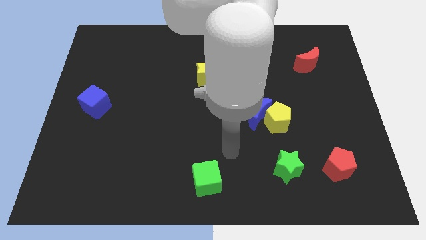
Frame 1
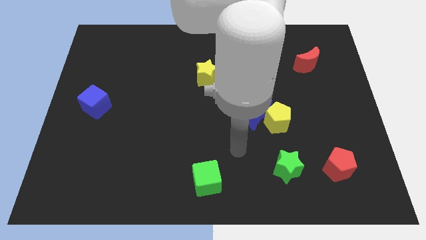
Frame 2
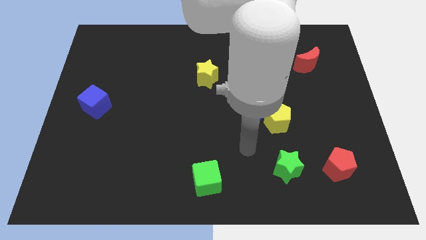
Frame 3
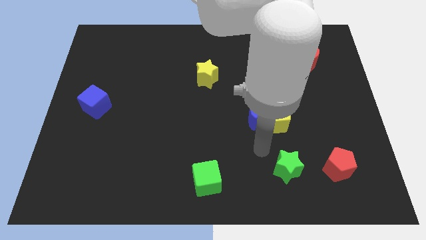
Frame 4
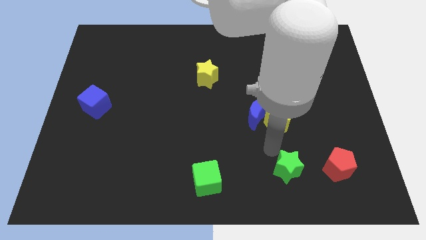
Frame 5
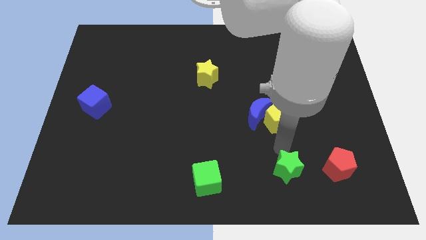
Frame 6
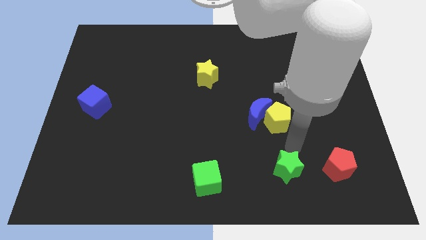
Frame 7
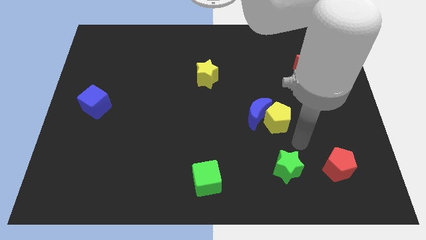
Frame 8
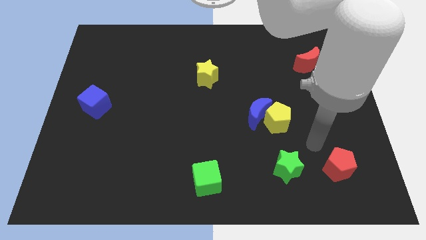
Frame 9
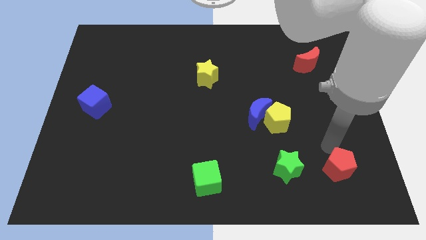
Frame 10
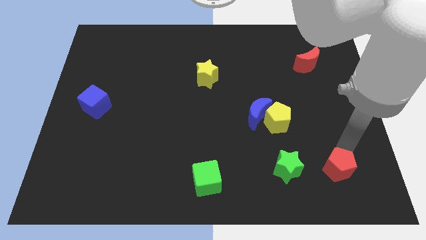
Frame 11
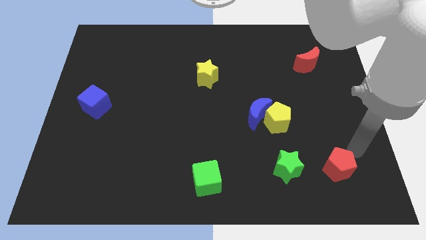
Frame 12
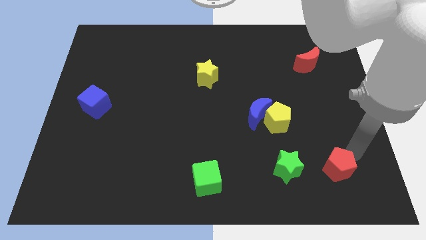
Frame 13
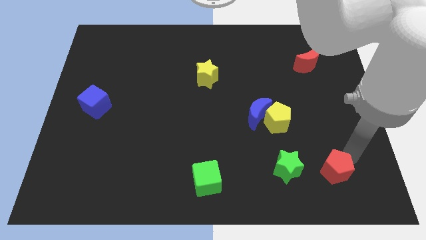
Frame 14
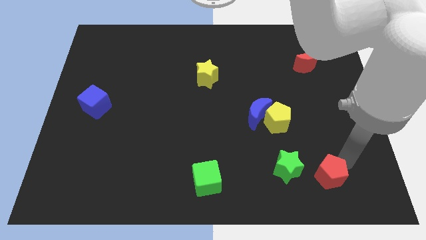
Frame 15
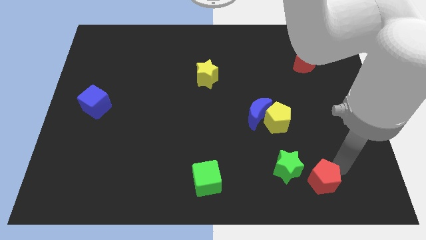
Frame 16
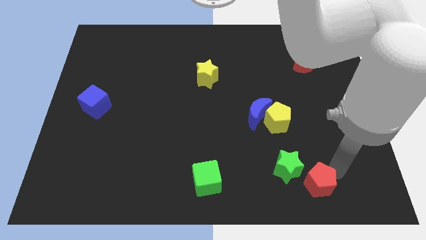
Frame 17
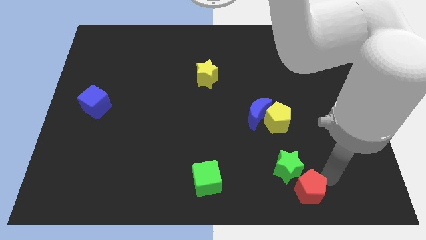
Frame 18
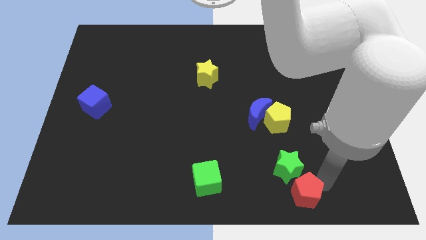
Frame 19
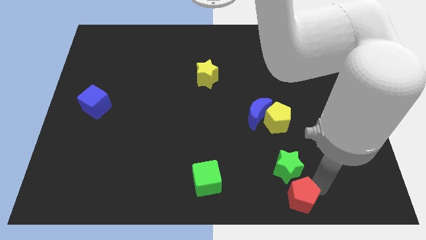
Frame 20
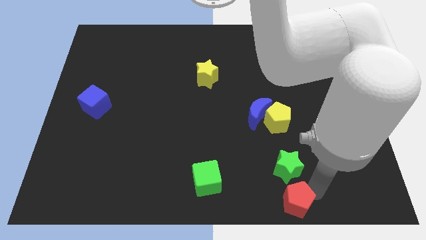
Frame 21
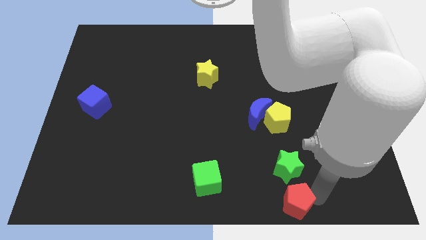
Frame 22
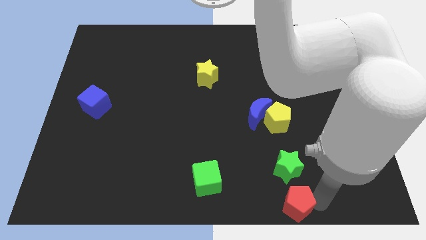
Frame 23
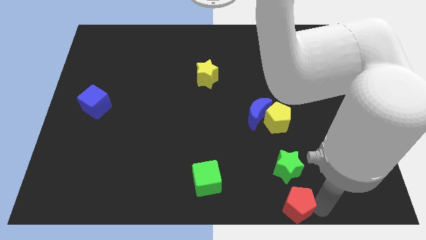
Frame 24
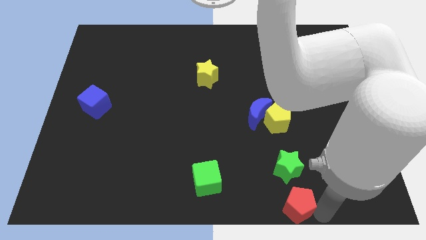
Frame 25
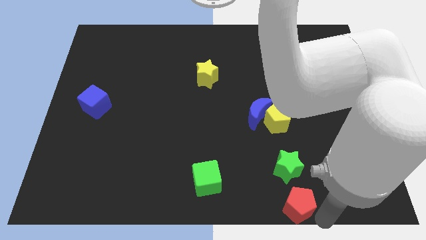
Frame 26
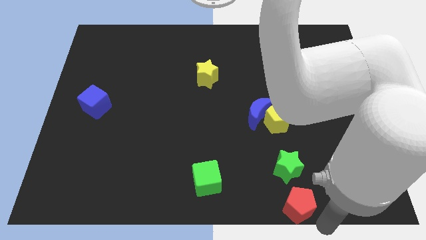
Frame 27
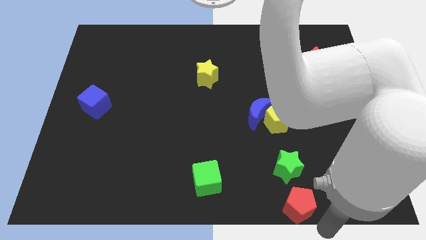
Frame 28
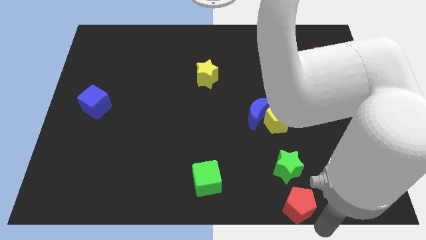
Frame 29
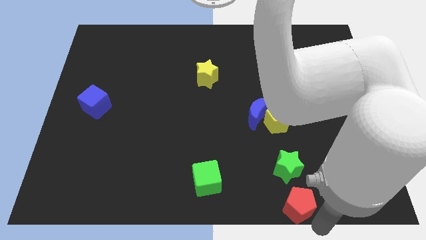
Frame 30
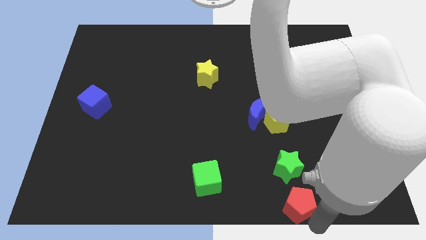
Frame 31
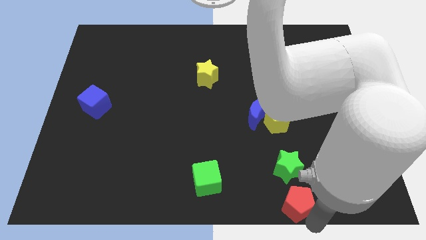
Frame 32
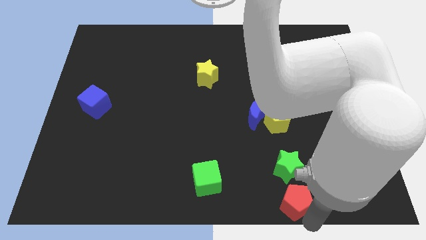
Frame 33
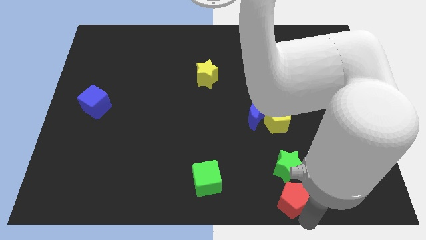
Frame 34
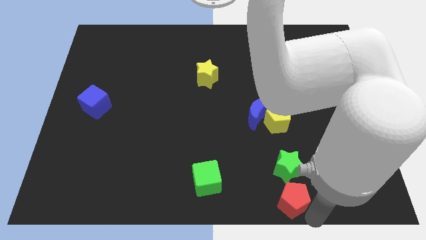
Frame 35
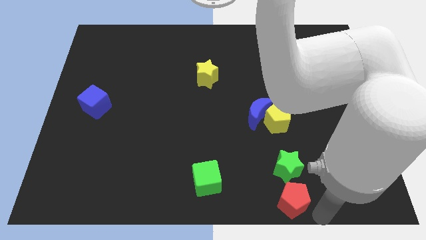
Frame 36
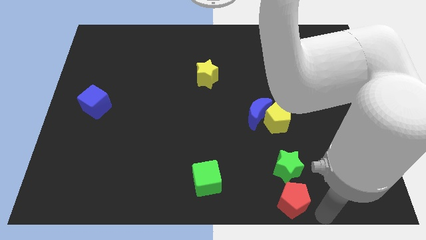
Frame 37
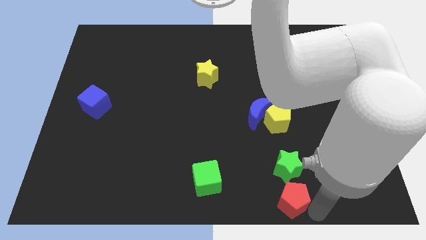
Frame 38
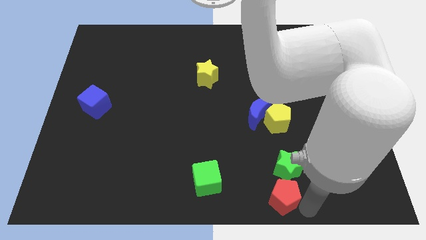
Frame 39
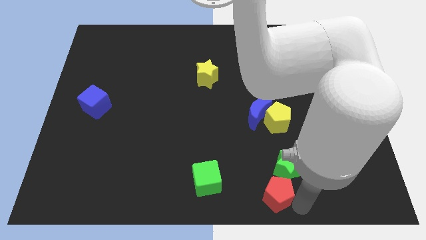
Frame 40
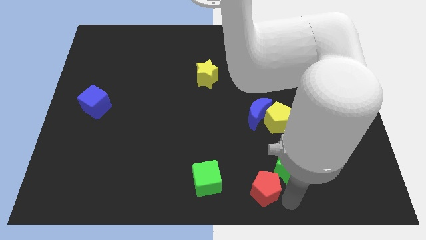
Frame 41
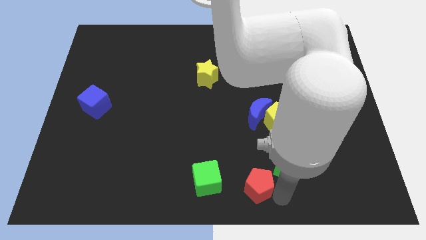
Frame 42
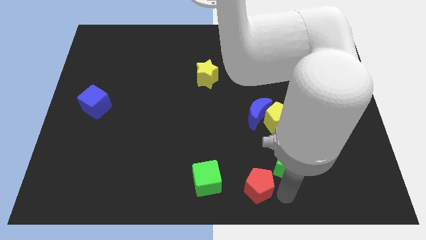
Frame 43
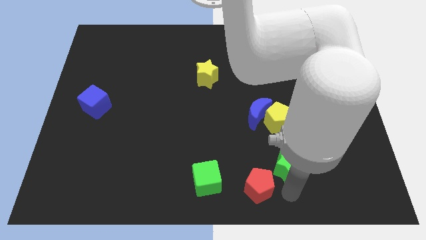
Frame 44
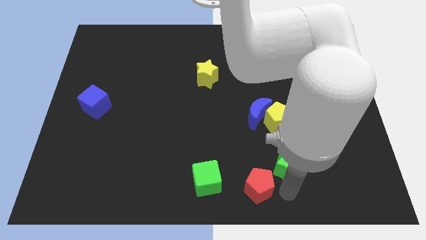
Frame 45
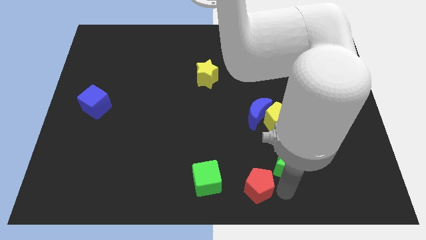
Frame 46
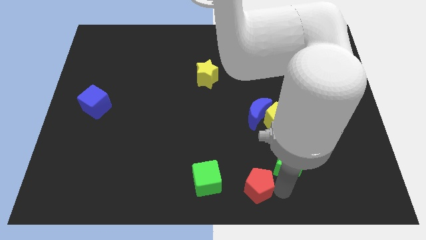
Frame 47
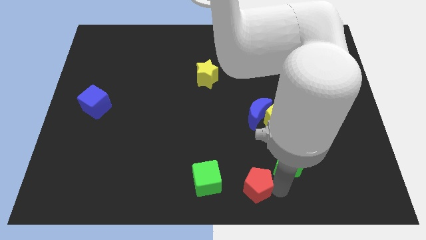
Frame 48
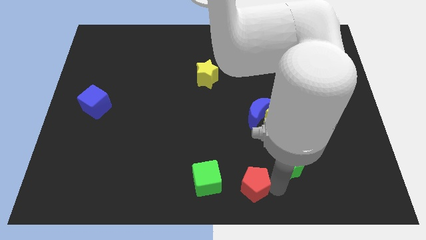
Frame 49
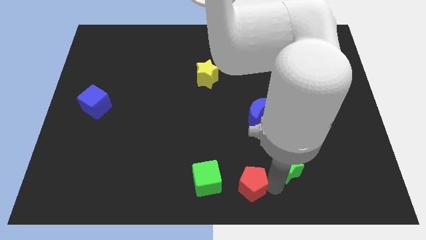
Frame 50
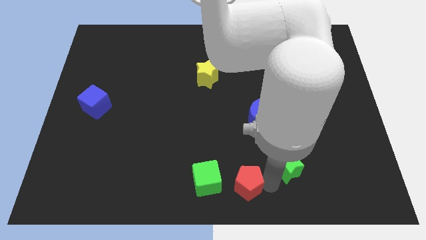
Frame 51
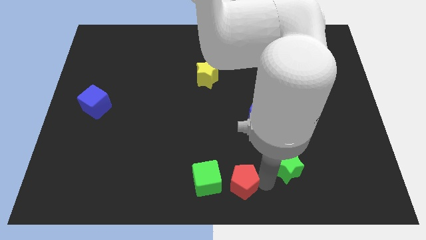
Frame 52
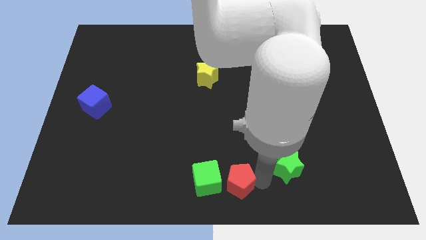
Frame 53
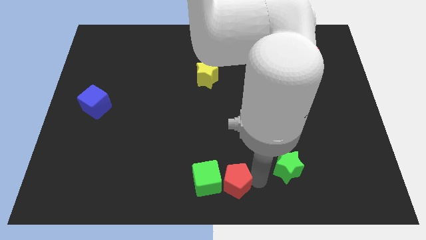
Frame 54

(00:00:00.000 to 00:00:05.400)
push the red pentagon next to the green cube

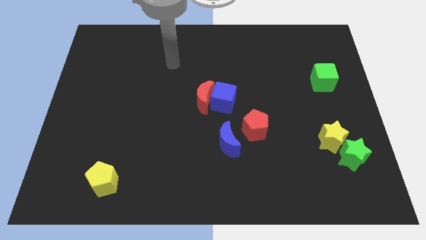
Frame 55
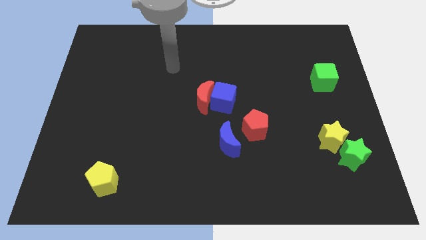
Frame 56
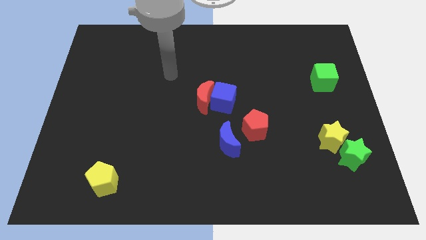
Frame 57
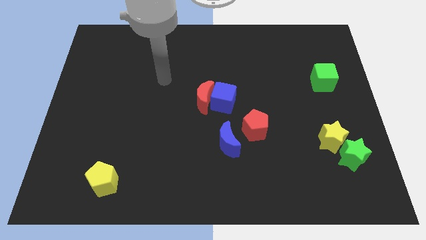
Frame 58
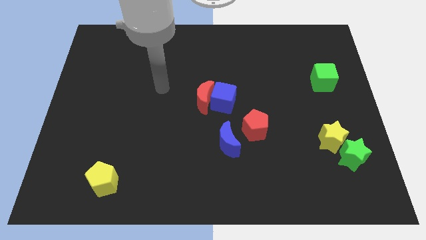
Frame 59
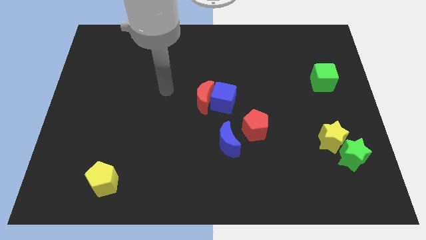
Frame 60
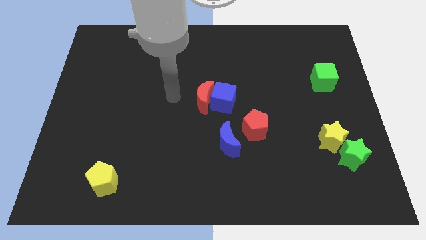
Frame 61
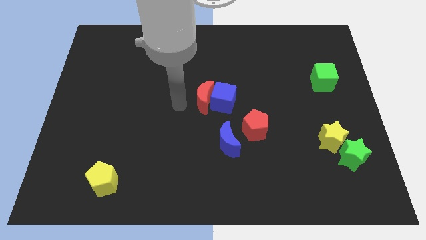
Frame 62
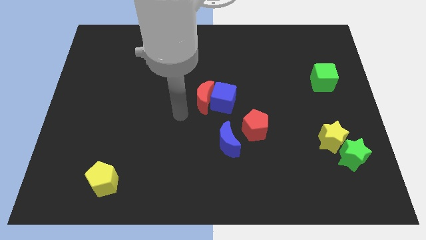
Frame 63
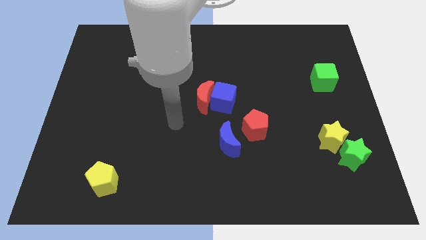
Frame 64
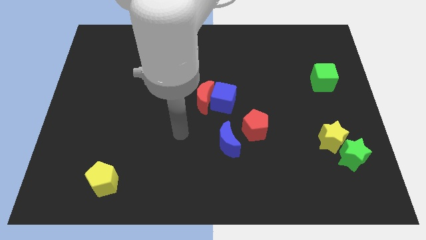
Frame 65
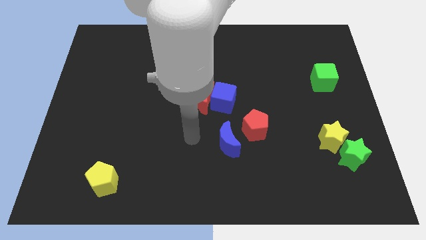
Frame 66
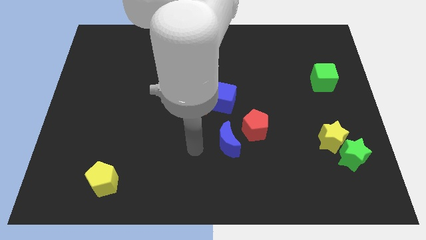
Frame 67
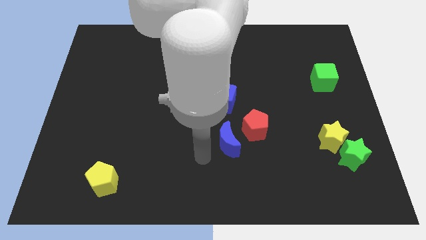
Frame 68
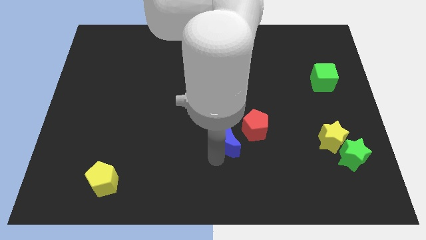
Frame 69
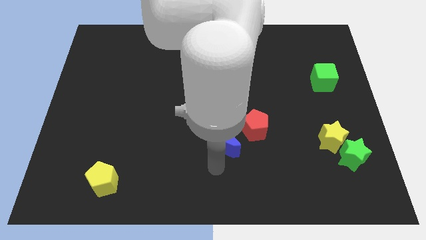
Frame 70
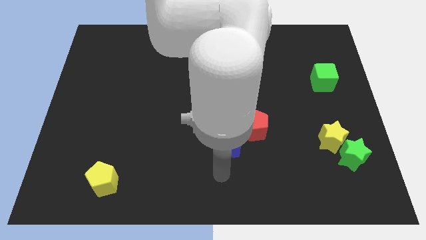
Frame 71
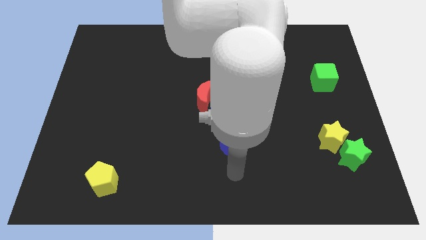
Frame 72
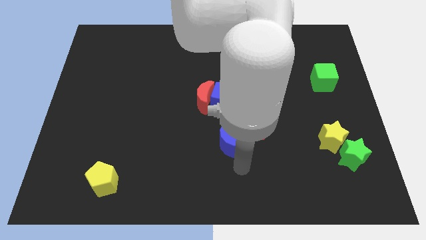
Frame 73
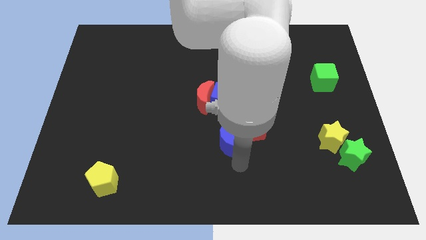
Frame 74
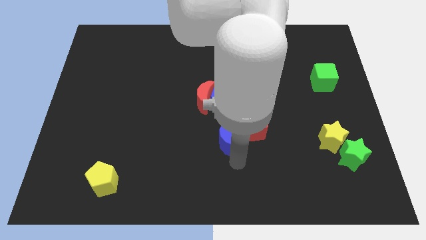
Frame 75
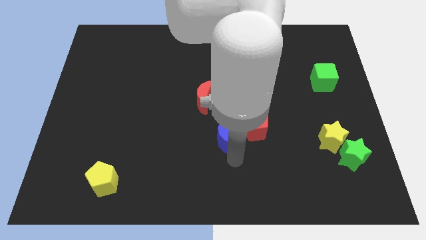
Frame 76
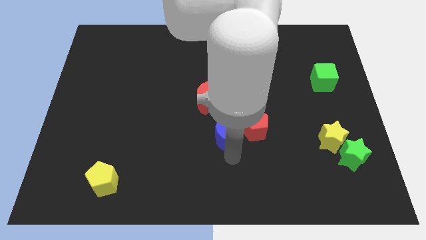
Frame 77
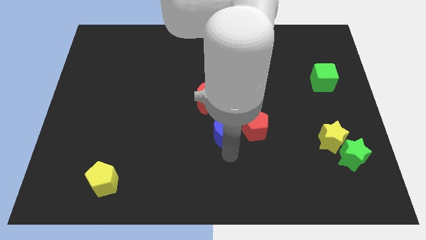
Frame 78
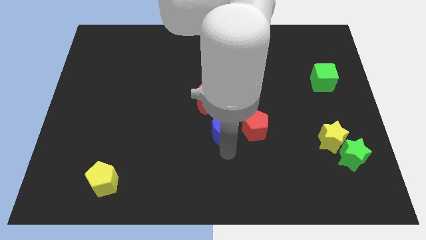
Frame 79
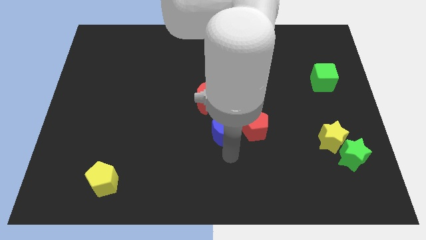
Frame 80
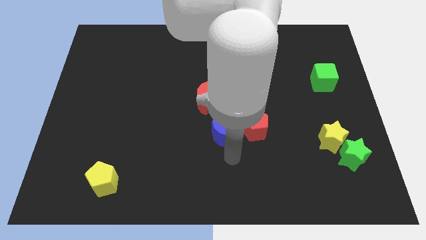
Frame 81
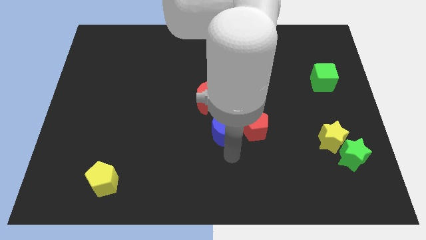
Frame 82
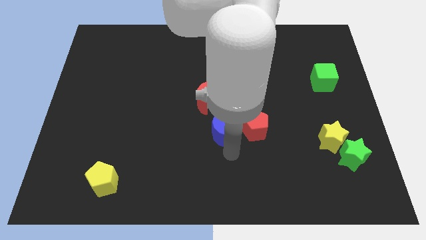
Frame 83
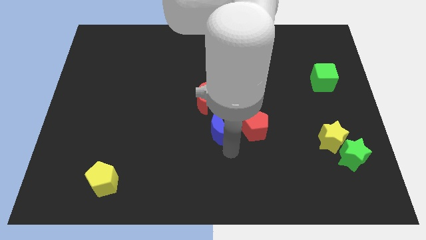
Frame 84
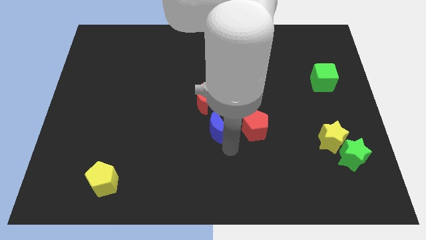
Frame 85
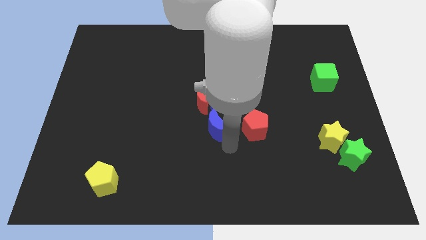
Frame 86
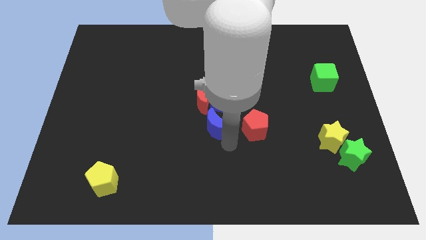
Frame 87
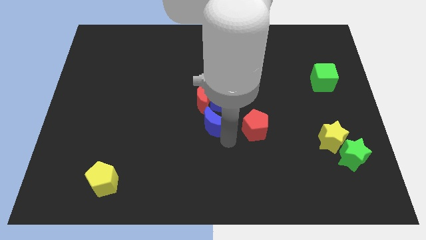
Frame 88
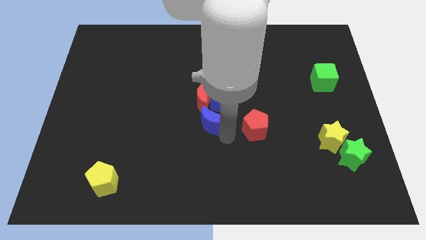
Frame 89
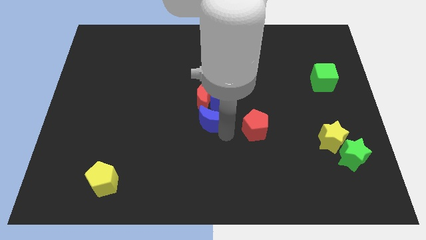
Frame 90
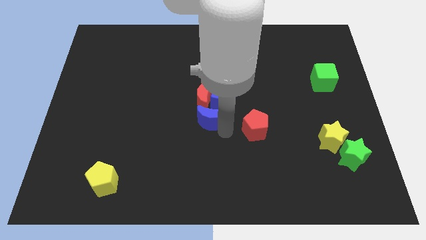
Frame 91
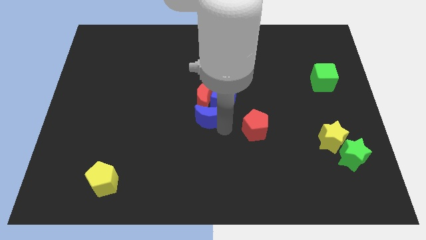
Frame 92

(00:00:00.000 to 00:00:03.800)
put the blue moon towards the red moon
